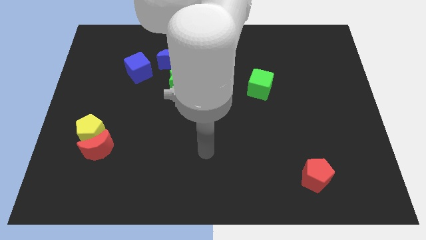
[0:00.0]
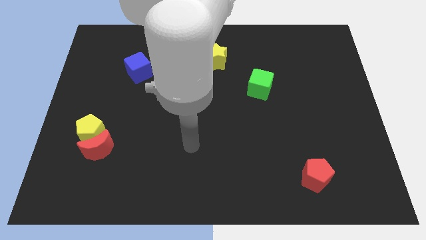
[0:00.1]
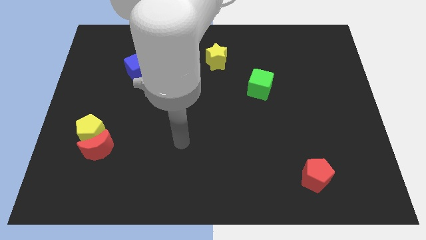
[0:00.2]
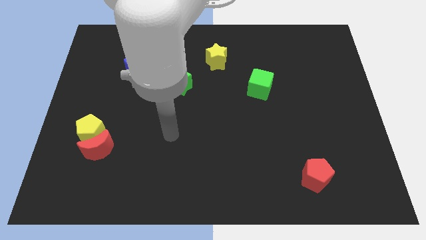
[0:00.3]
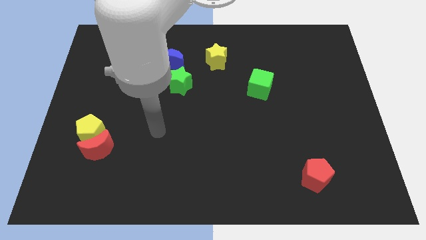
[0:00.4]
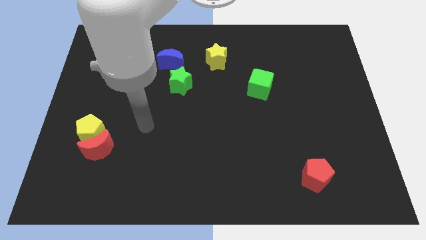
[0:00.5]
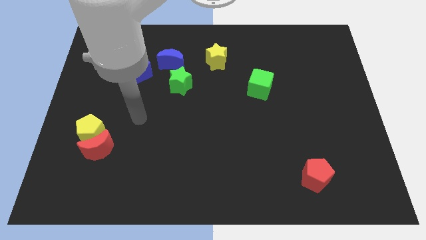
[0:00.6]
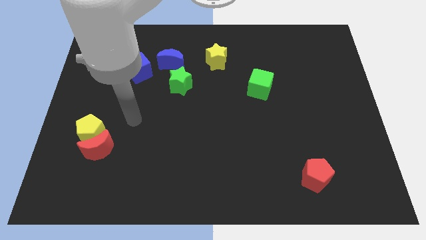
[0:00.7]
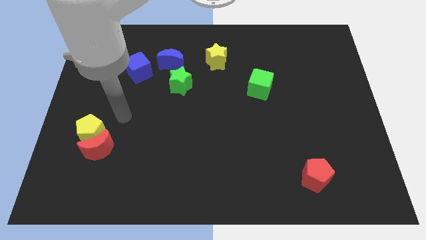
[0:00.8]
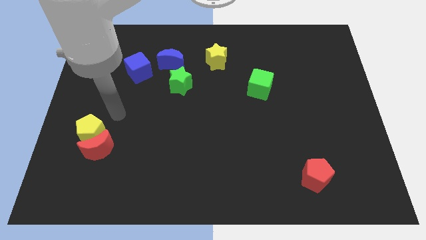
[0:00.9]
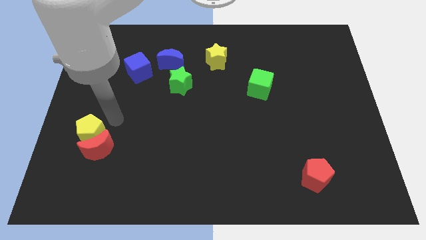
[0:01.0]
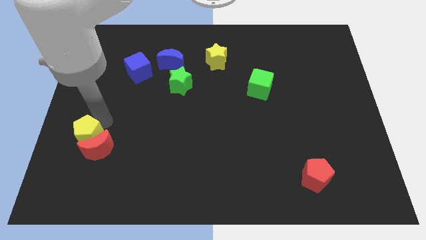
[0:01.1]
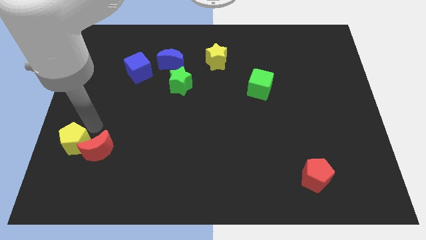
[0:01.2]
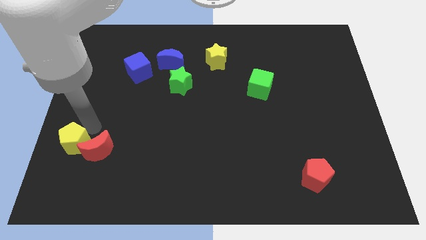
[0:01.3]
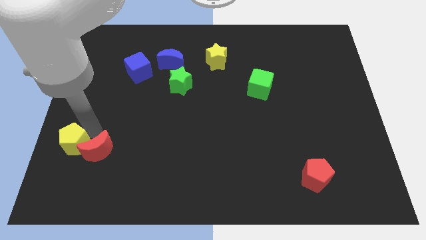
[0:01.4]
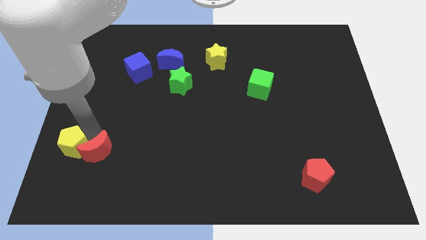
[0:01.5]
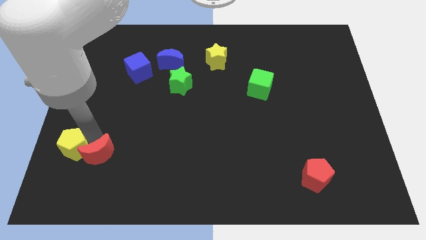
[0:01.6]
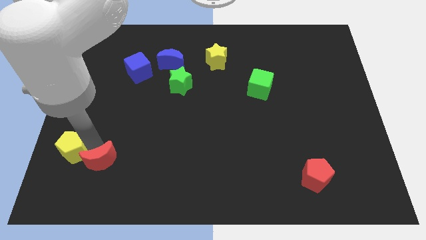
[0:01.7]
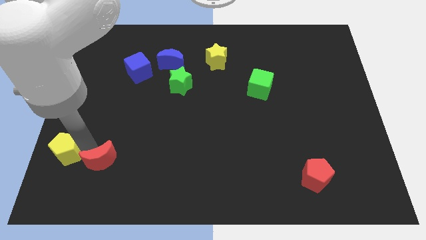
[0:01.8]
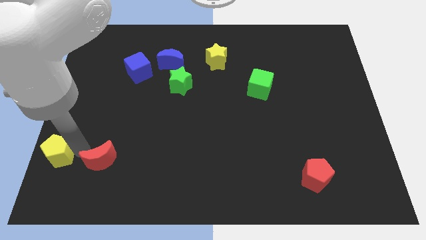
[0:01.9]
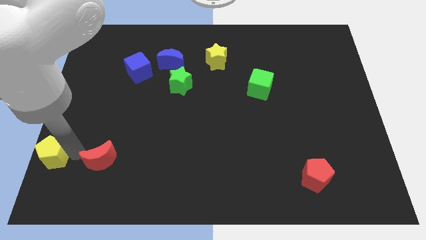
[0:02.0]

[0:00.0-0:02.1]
separate the red moon from the yellow pentagon

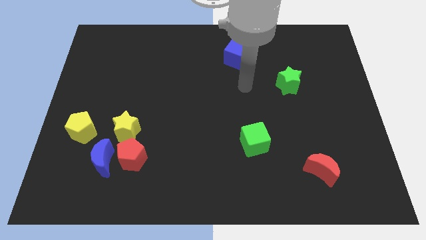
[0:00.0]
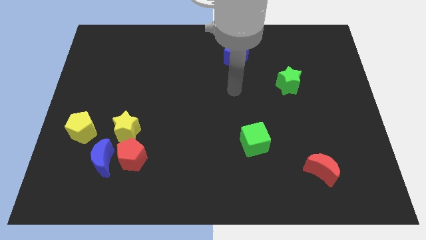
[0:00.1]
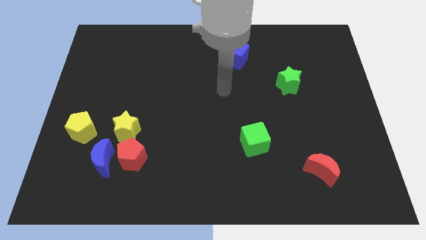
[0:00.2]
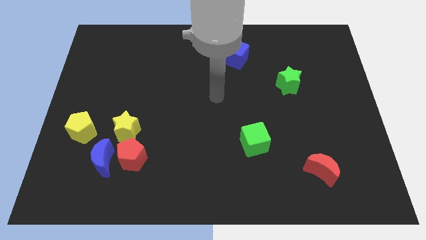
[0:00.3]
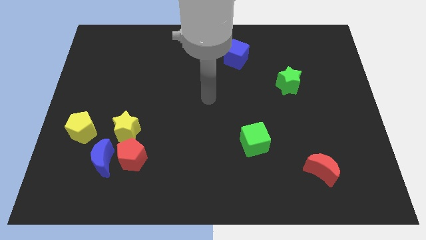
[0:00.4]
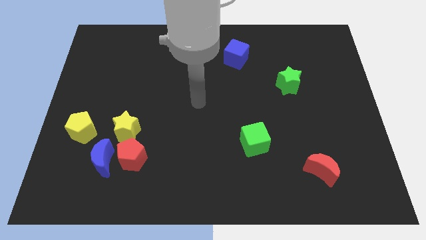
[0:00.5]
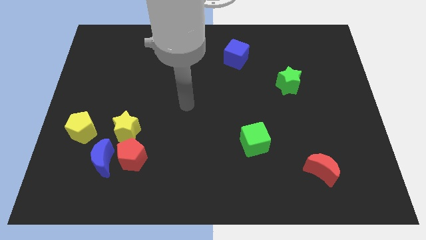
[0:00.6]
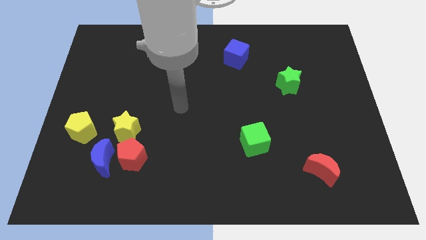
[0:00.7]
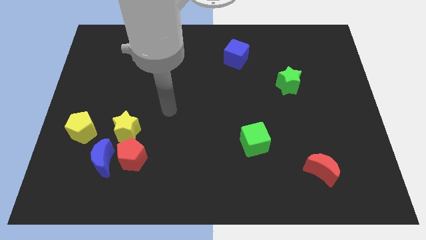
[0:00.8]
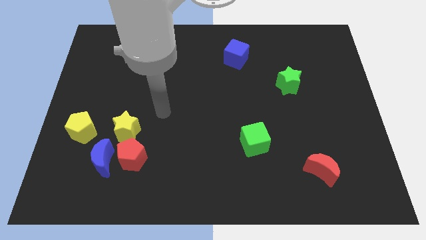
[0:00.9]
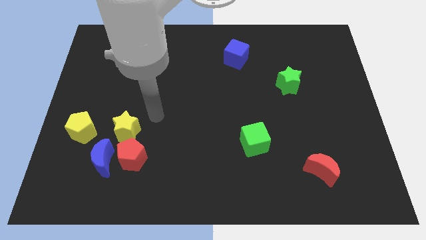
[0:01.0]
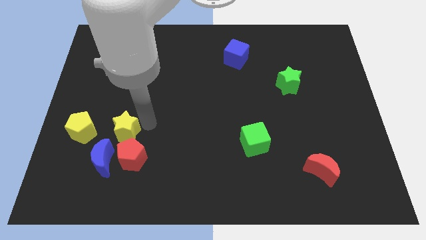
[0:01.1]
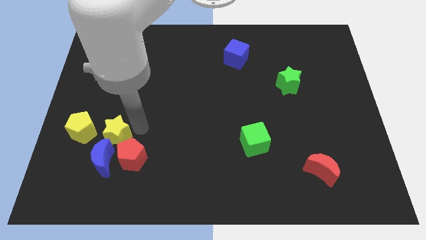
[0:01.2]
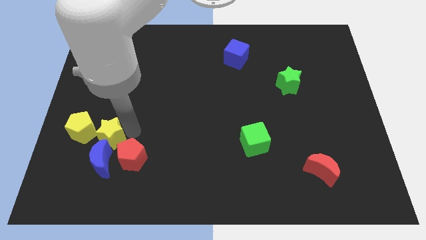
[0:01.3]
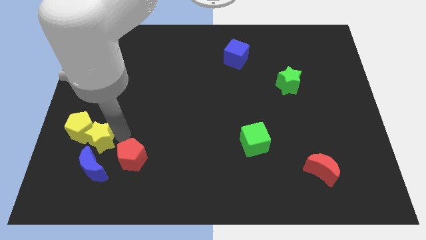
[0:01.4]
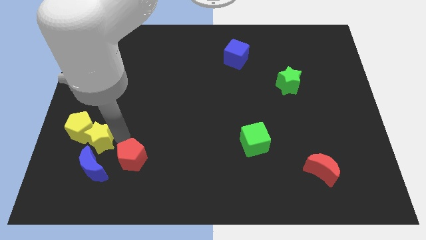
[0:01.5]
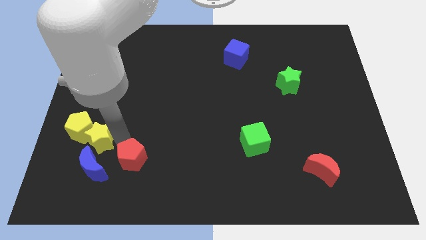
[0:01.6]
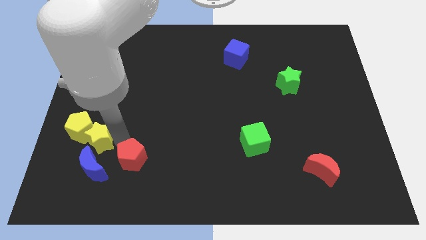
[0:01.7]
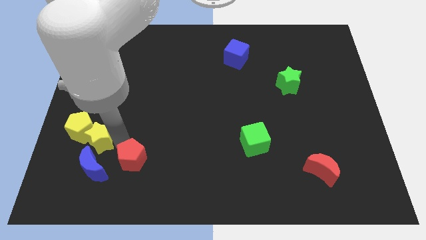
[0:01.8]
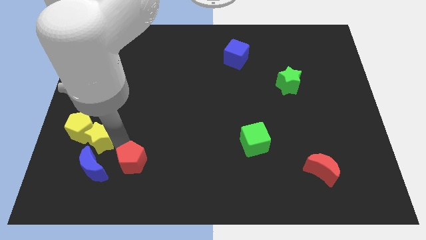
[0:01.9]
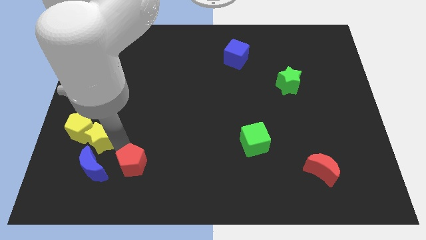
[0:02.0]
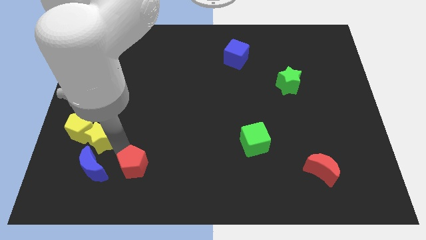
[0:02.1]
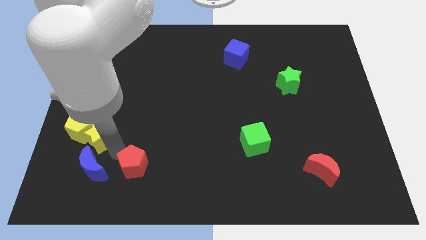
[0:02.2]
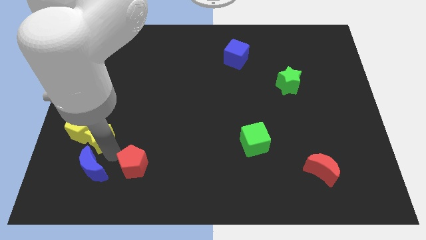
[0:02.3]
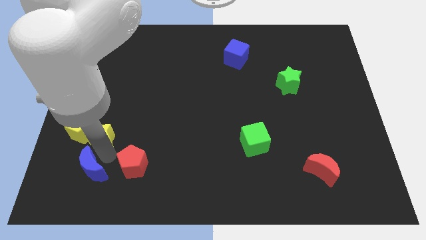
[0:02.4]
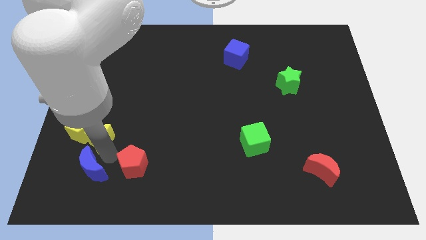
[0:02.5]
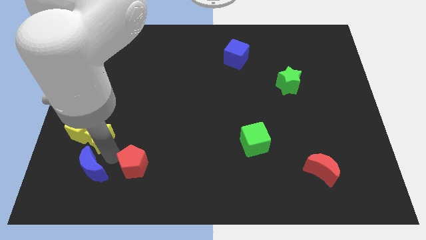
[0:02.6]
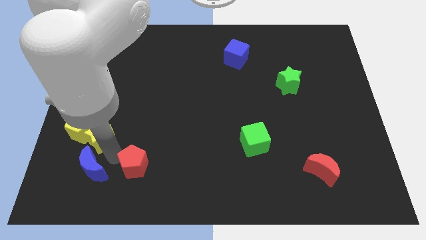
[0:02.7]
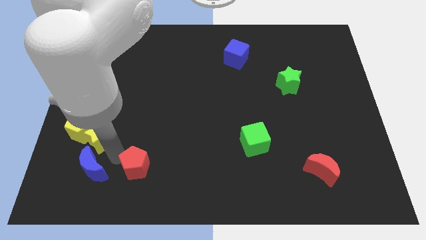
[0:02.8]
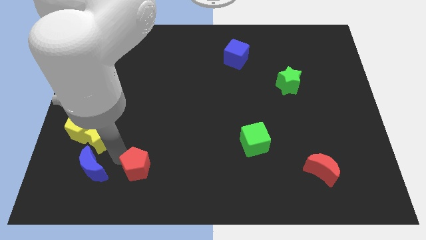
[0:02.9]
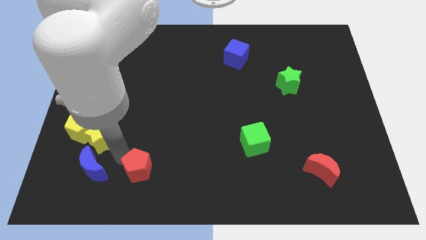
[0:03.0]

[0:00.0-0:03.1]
pull the red pentagon apart from the blue moon and yellow star

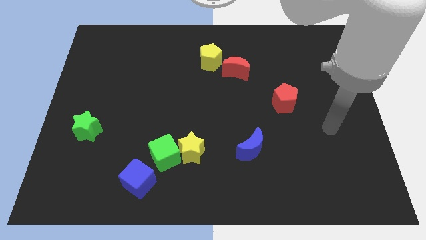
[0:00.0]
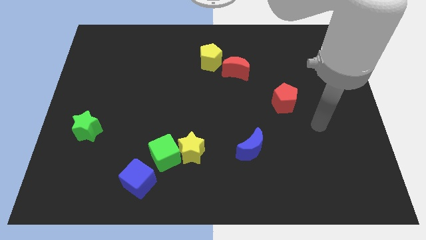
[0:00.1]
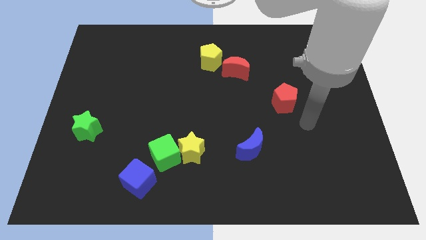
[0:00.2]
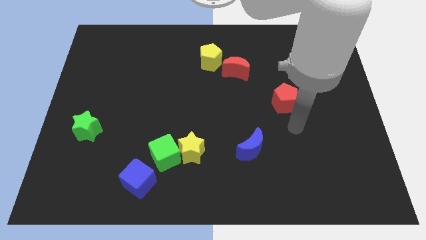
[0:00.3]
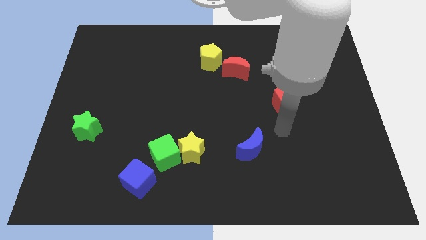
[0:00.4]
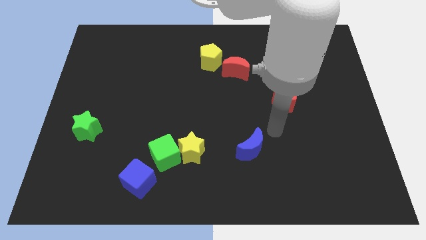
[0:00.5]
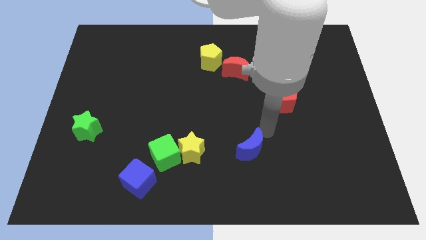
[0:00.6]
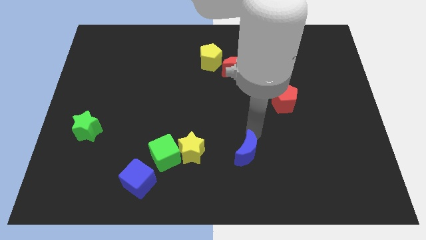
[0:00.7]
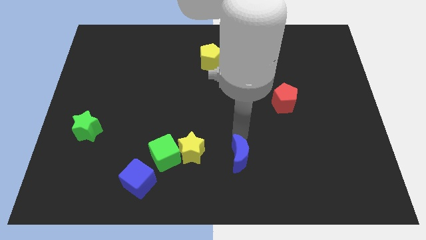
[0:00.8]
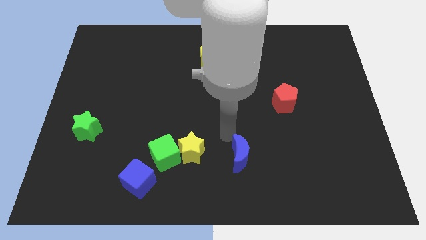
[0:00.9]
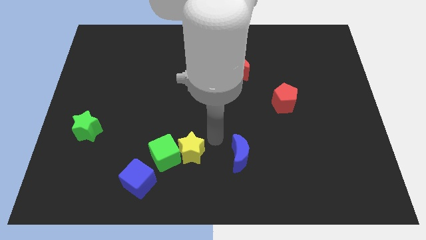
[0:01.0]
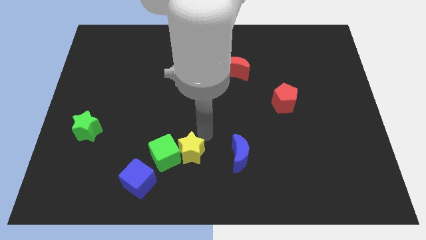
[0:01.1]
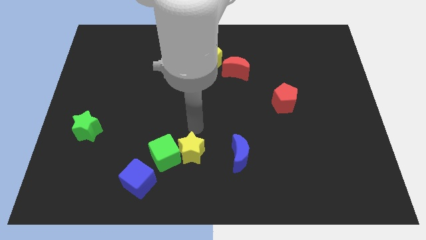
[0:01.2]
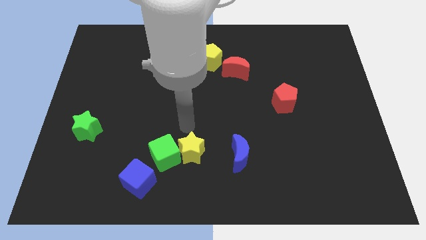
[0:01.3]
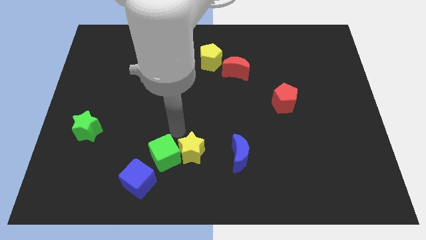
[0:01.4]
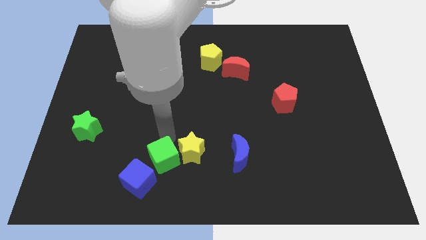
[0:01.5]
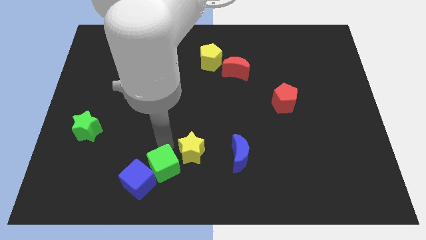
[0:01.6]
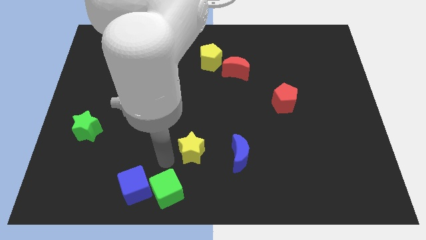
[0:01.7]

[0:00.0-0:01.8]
separate the yellow star from the green cube

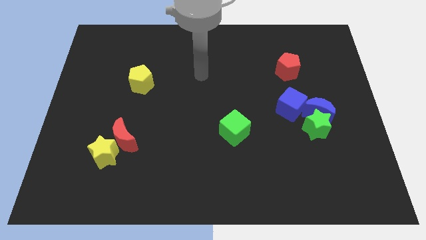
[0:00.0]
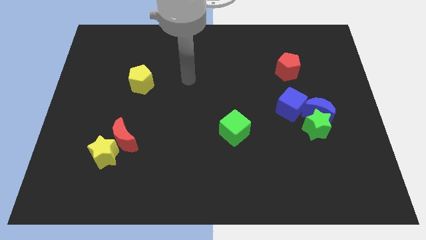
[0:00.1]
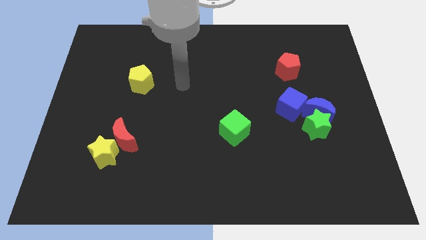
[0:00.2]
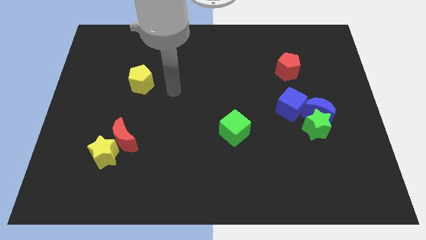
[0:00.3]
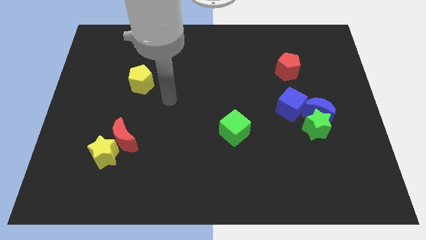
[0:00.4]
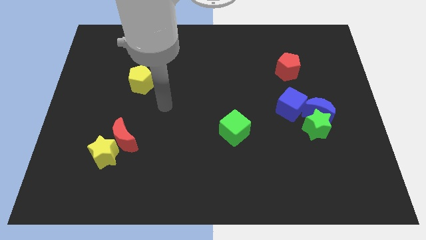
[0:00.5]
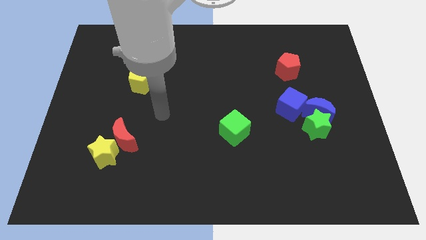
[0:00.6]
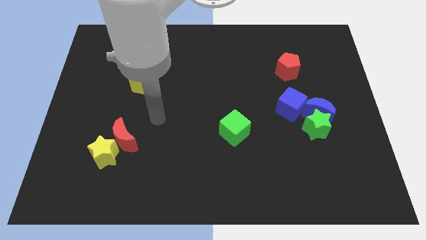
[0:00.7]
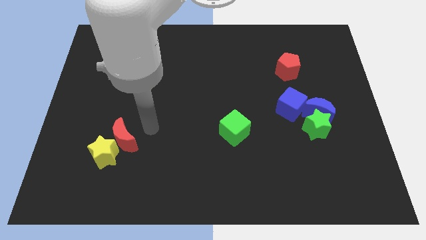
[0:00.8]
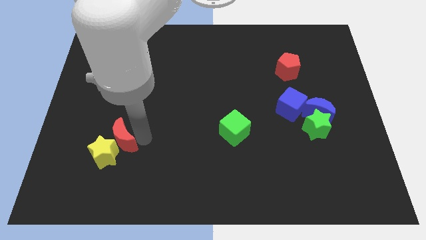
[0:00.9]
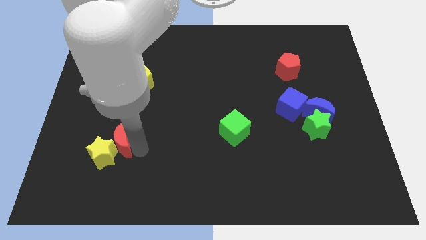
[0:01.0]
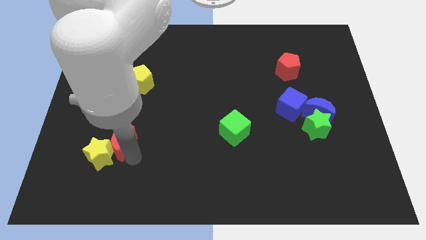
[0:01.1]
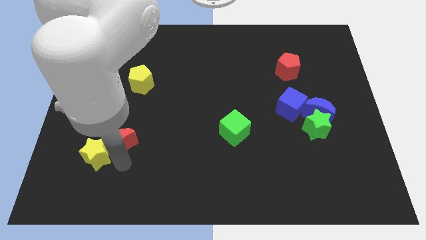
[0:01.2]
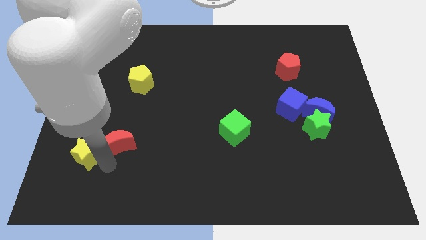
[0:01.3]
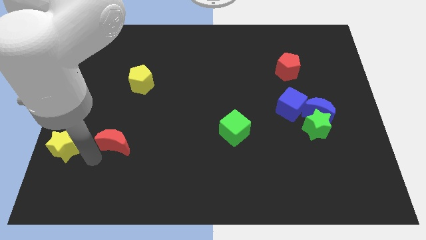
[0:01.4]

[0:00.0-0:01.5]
move the red moon away from the yellow star

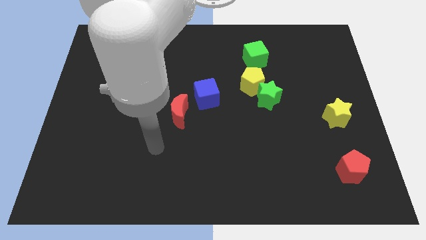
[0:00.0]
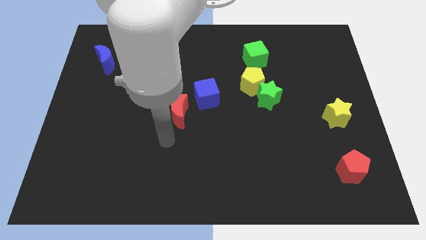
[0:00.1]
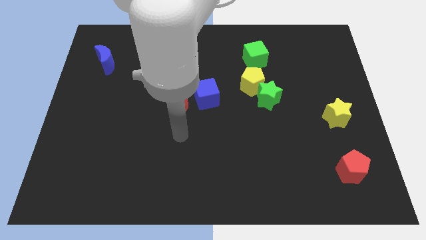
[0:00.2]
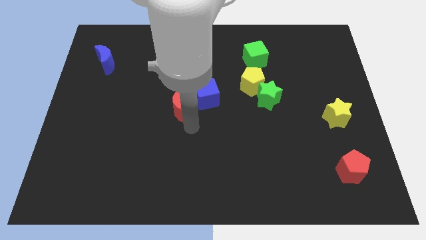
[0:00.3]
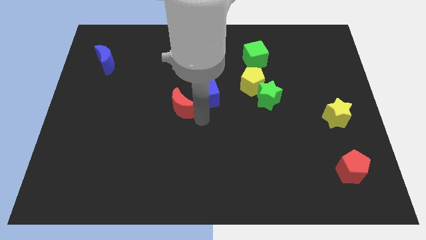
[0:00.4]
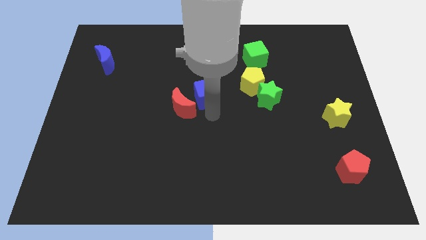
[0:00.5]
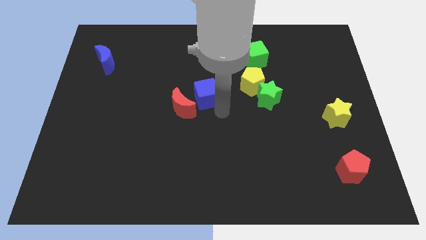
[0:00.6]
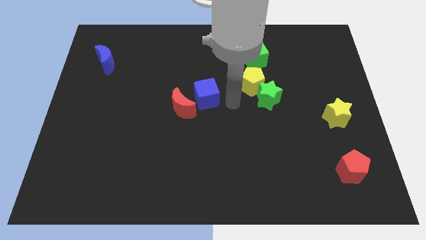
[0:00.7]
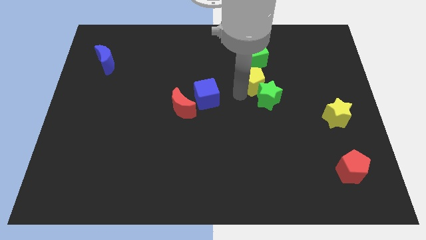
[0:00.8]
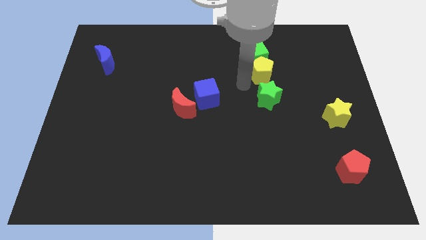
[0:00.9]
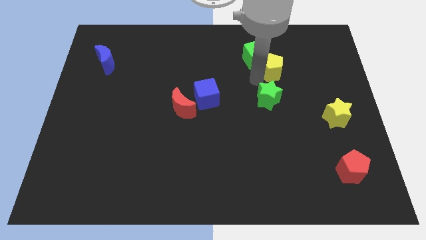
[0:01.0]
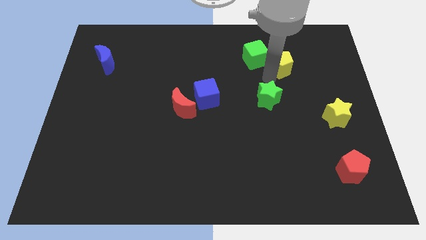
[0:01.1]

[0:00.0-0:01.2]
separate the green star from the yellow pentagon
